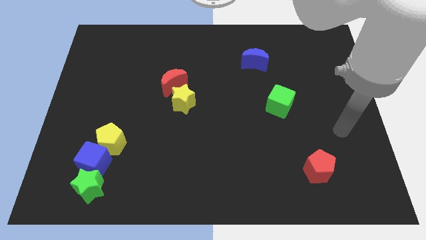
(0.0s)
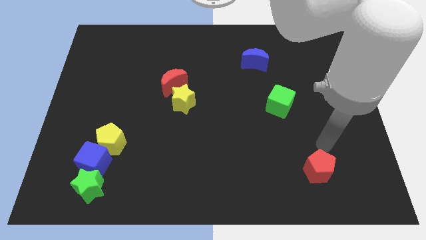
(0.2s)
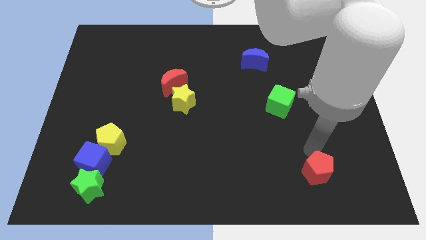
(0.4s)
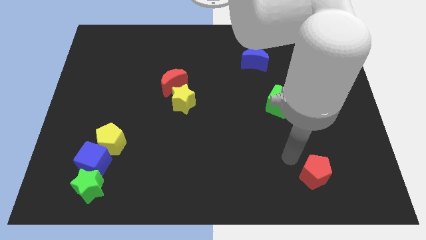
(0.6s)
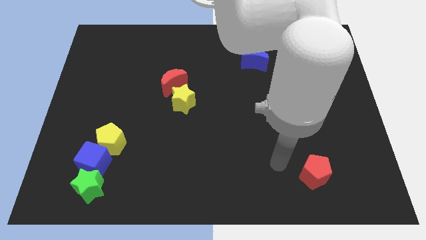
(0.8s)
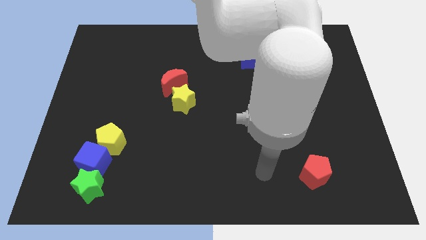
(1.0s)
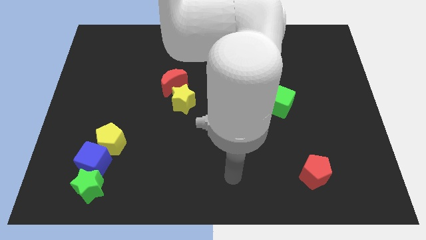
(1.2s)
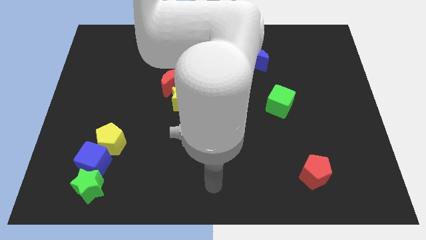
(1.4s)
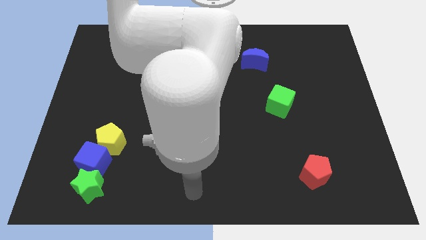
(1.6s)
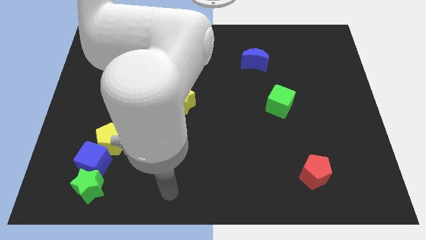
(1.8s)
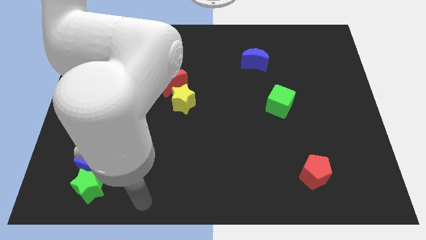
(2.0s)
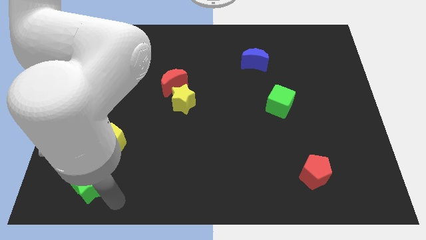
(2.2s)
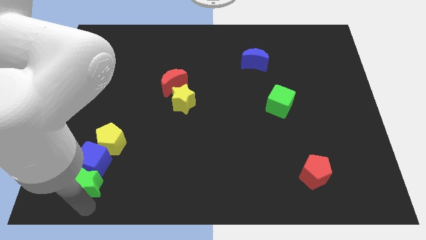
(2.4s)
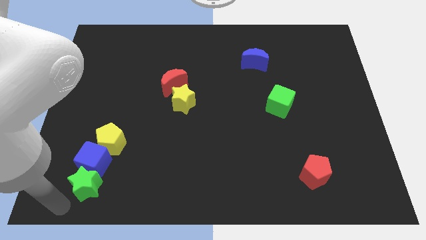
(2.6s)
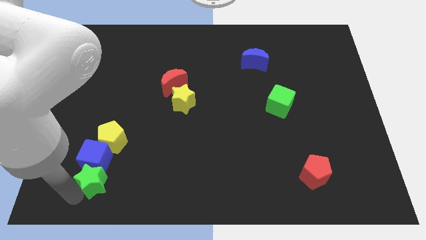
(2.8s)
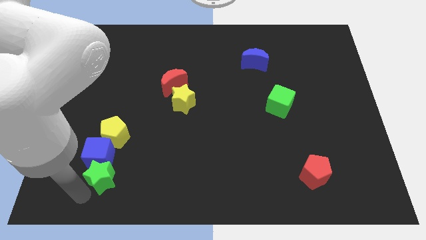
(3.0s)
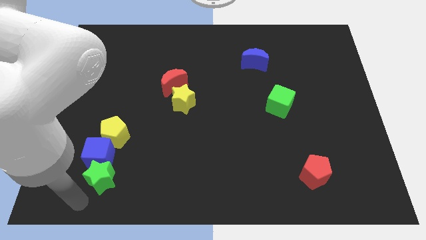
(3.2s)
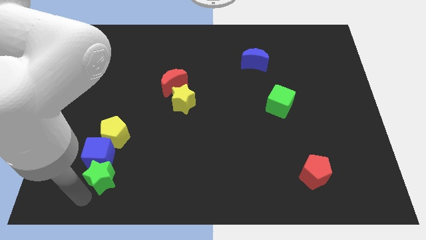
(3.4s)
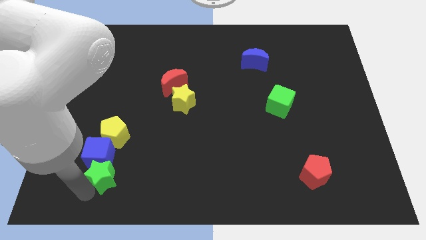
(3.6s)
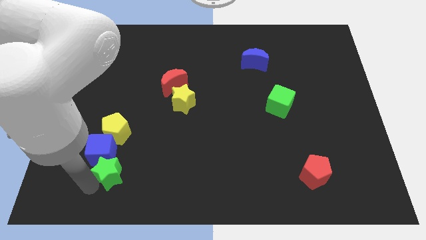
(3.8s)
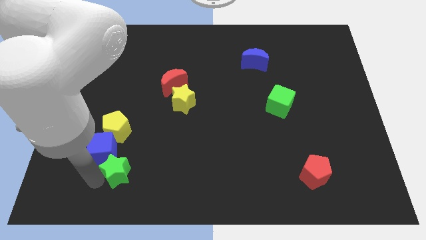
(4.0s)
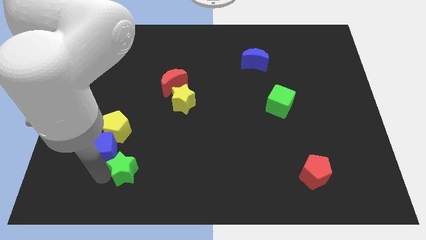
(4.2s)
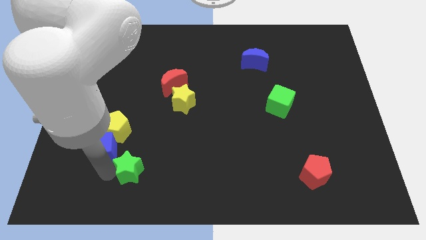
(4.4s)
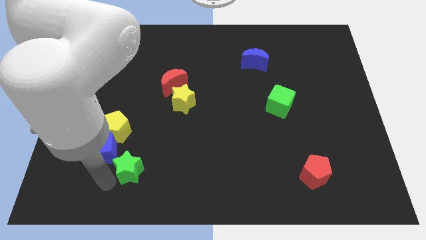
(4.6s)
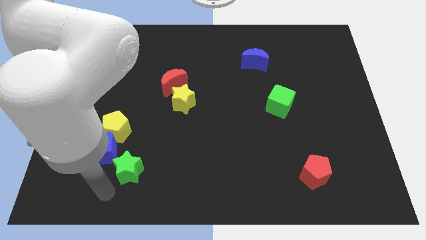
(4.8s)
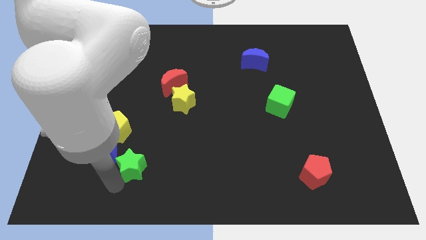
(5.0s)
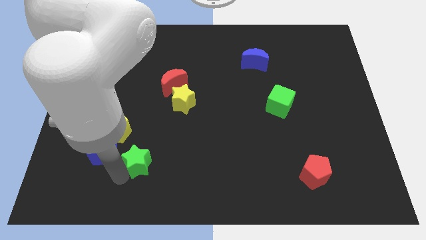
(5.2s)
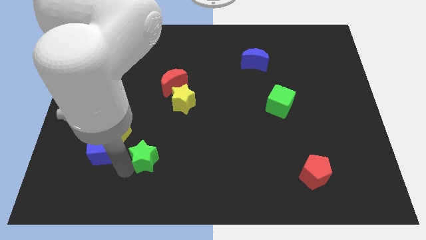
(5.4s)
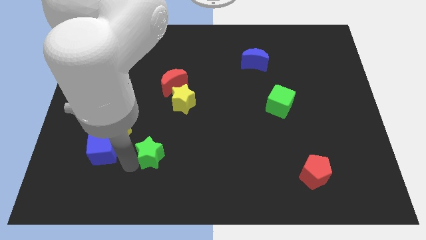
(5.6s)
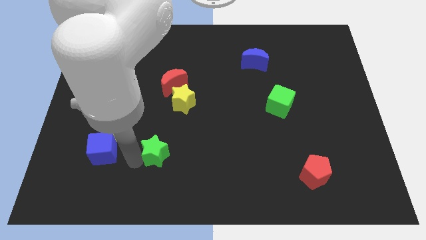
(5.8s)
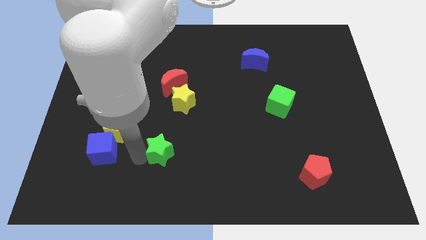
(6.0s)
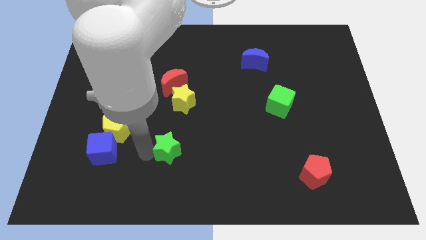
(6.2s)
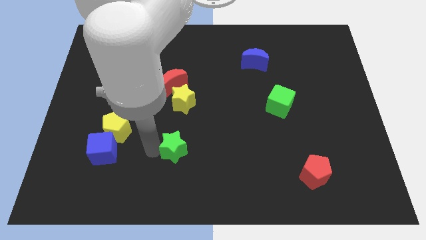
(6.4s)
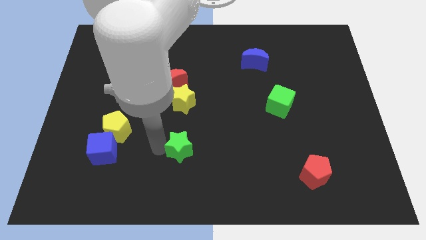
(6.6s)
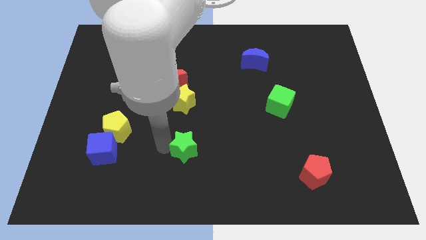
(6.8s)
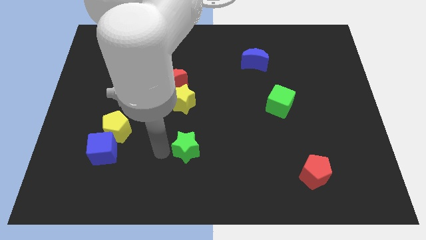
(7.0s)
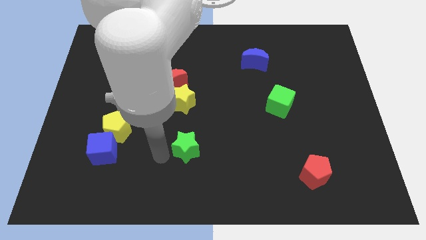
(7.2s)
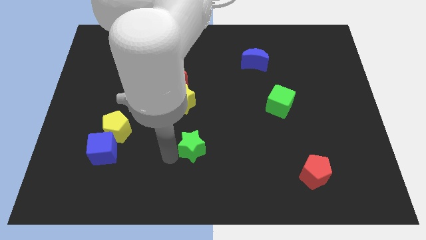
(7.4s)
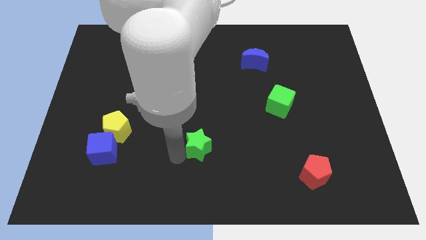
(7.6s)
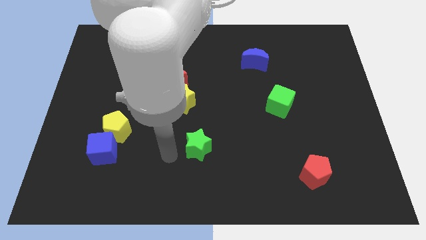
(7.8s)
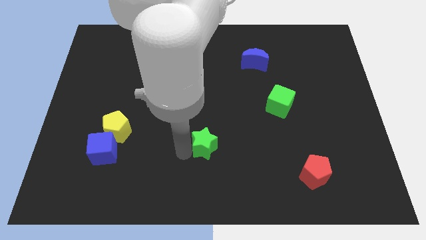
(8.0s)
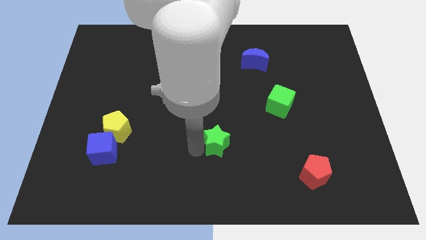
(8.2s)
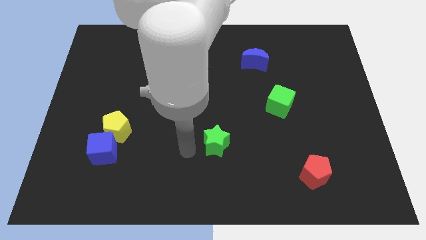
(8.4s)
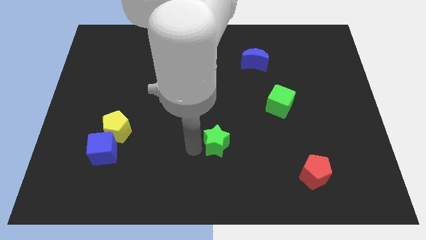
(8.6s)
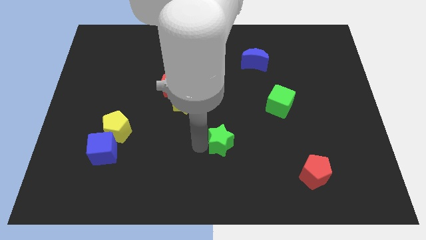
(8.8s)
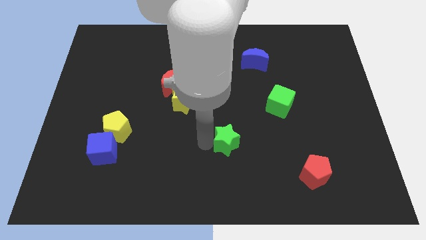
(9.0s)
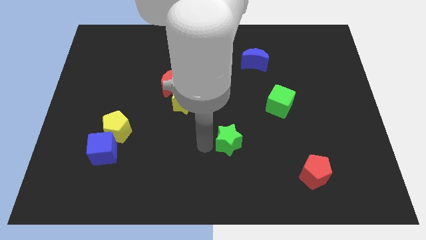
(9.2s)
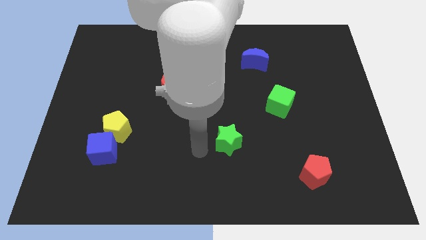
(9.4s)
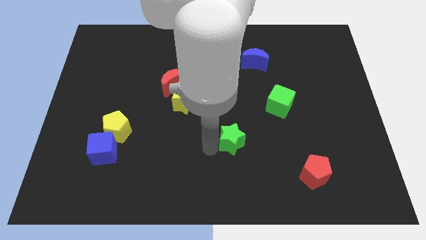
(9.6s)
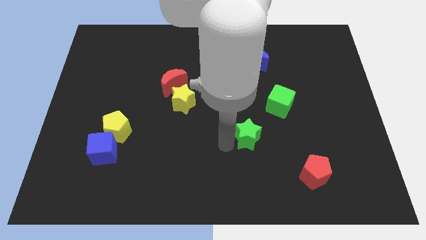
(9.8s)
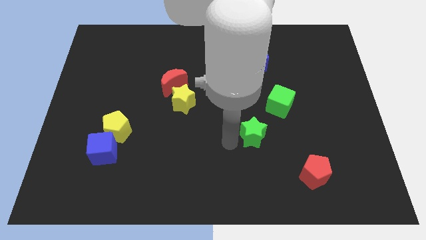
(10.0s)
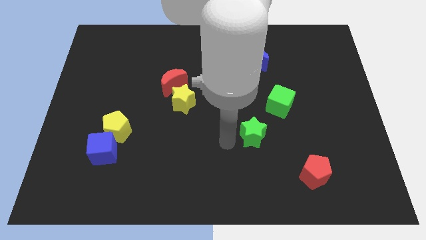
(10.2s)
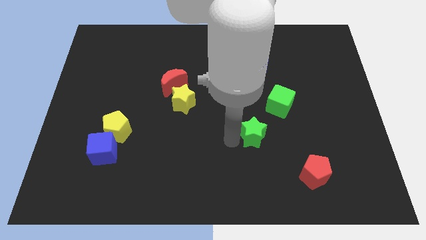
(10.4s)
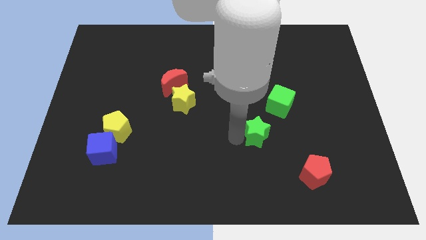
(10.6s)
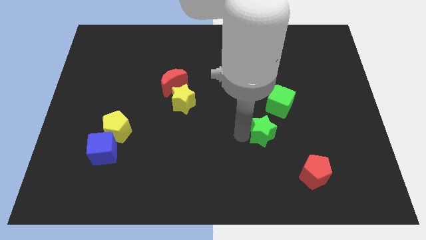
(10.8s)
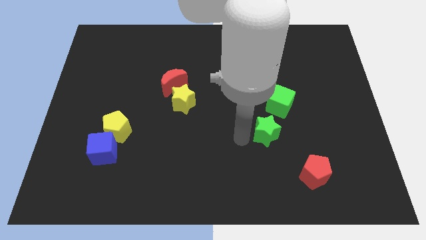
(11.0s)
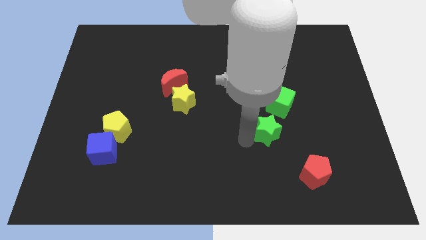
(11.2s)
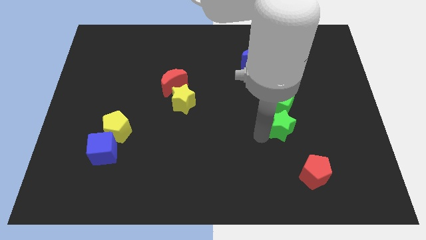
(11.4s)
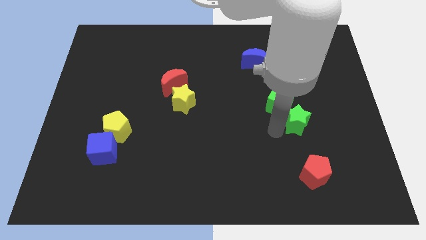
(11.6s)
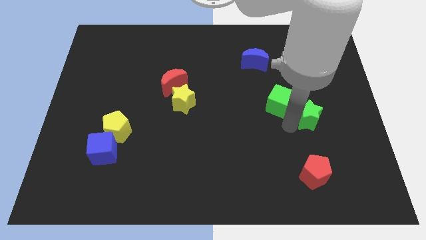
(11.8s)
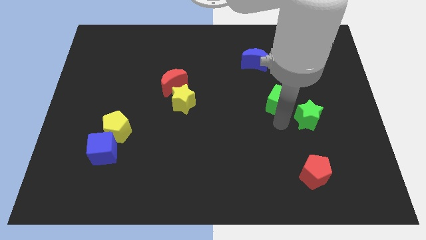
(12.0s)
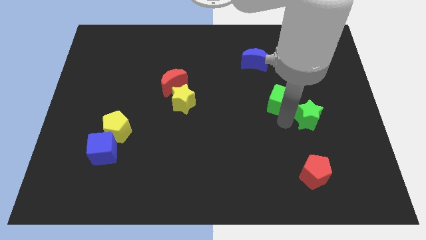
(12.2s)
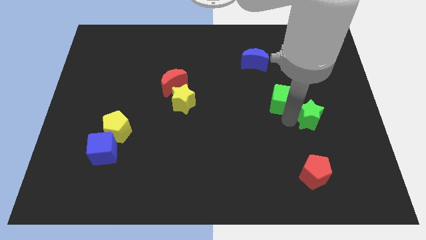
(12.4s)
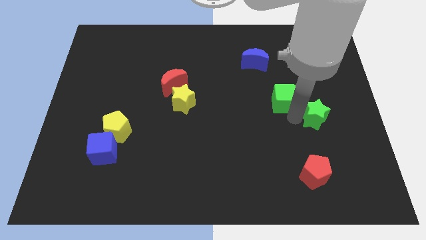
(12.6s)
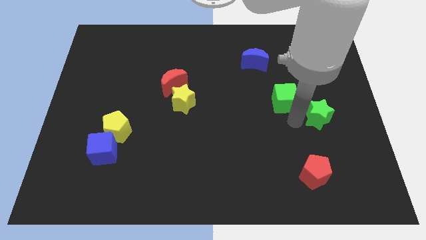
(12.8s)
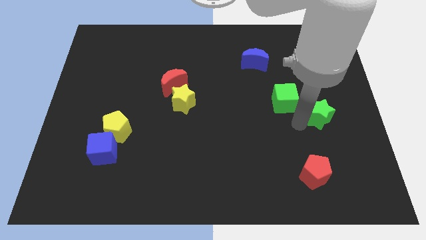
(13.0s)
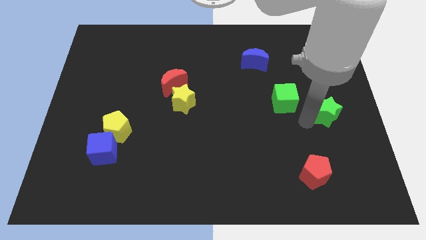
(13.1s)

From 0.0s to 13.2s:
put the green star to the right side of the board
